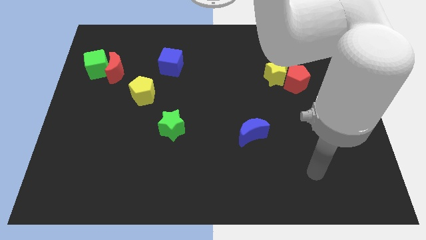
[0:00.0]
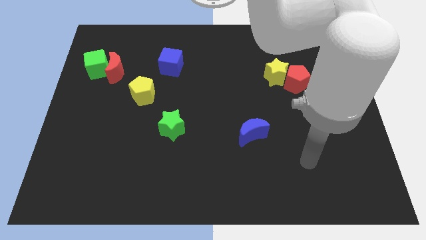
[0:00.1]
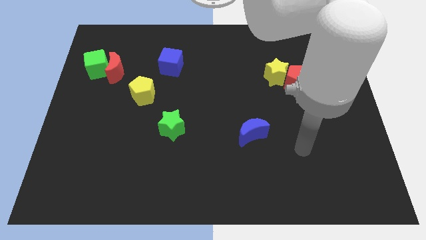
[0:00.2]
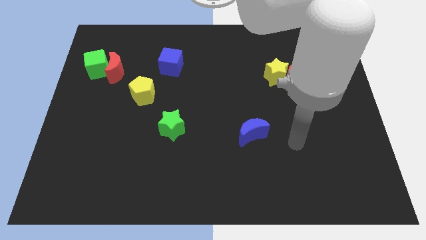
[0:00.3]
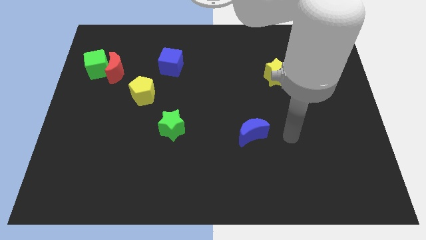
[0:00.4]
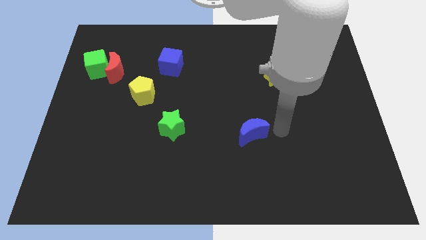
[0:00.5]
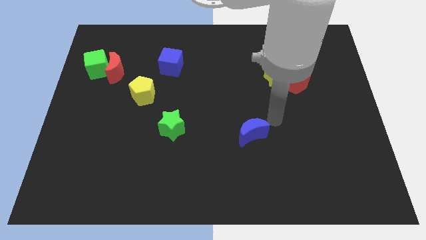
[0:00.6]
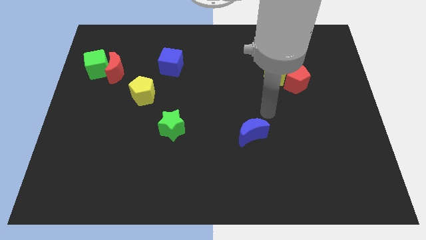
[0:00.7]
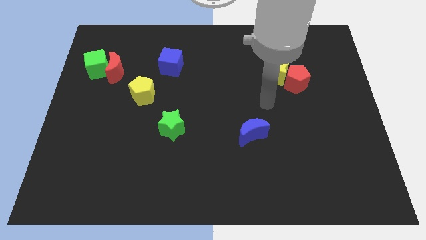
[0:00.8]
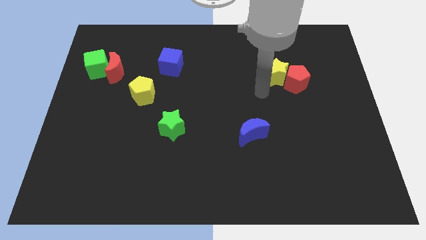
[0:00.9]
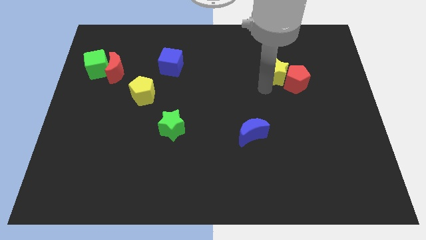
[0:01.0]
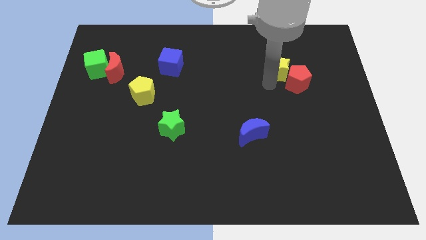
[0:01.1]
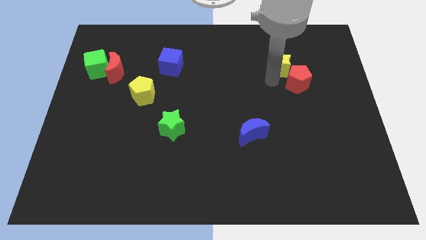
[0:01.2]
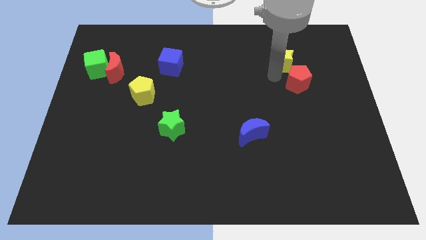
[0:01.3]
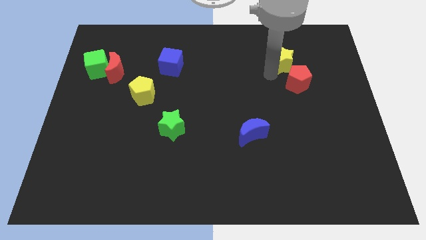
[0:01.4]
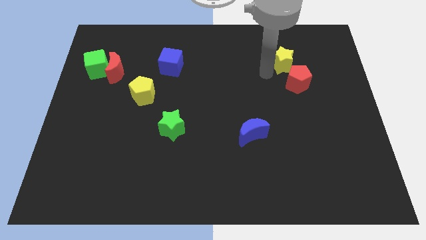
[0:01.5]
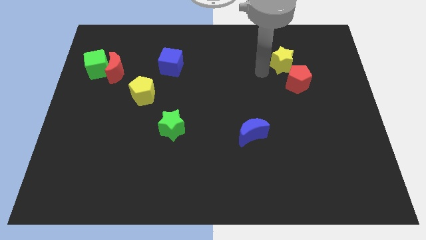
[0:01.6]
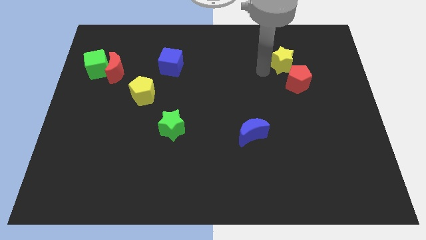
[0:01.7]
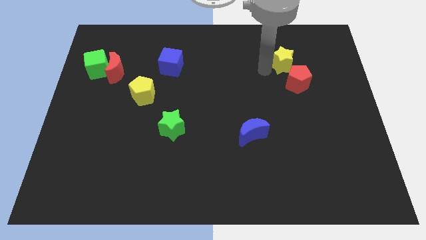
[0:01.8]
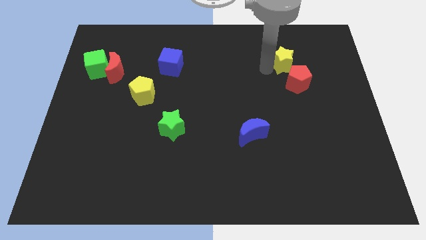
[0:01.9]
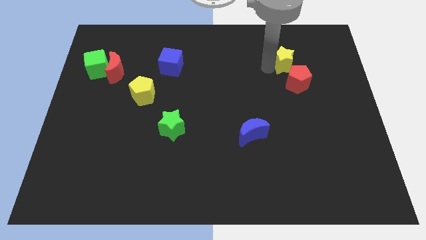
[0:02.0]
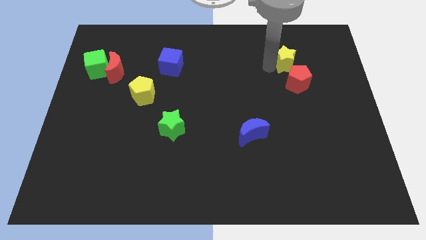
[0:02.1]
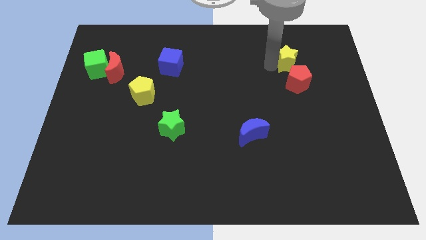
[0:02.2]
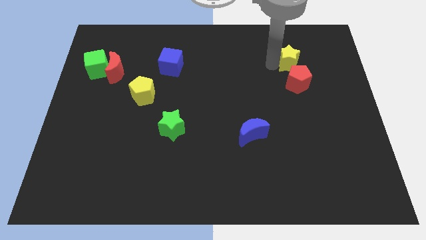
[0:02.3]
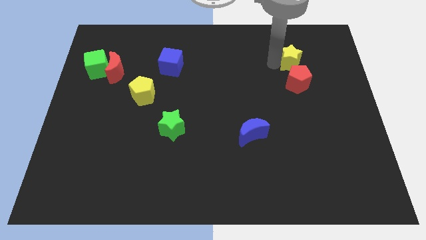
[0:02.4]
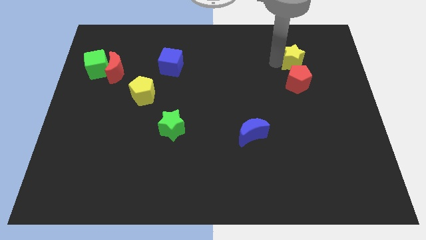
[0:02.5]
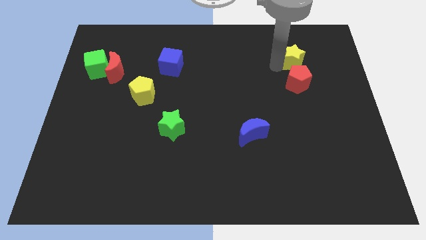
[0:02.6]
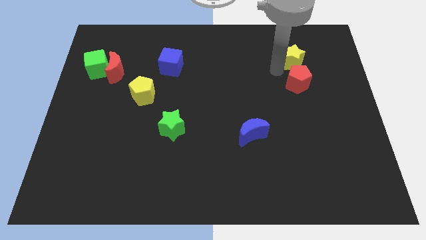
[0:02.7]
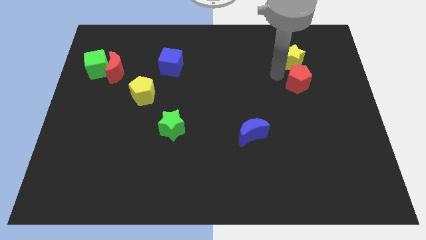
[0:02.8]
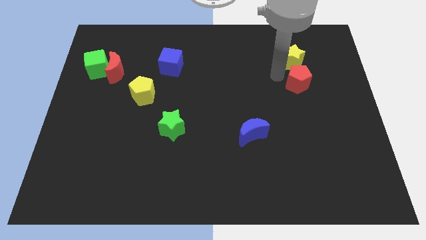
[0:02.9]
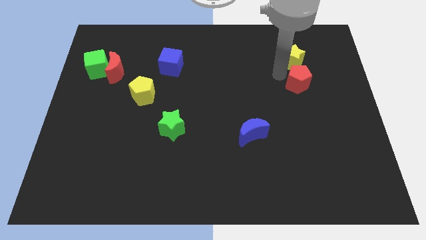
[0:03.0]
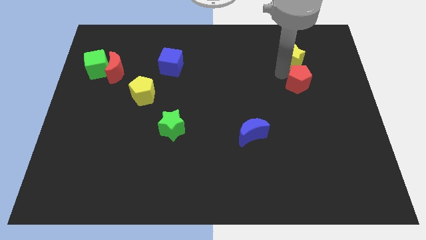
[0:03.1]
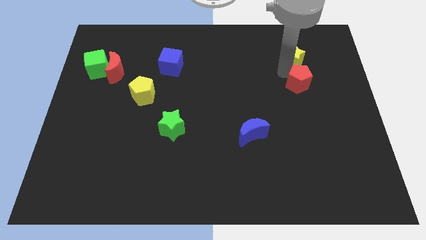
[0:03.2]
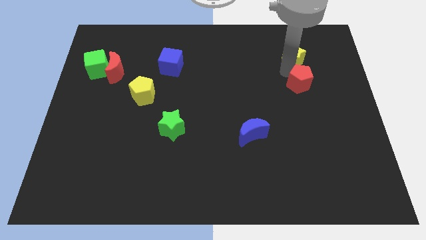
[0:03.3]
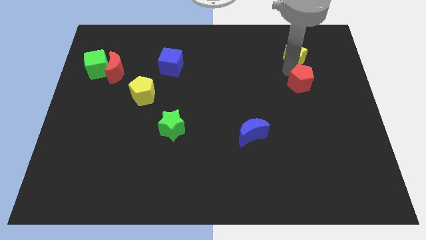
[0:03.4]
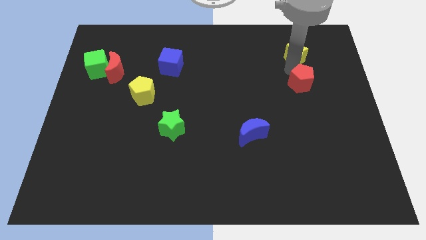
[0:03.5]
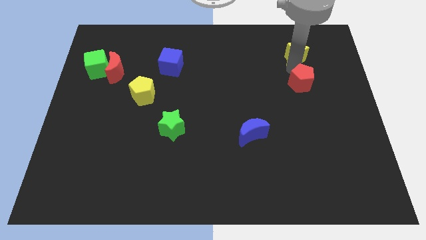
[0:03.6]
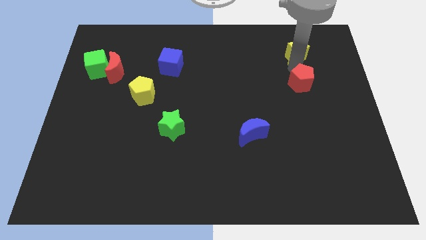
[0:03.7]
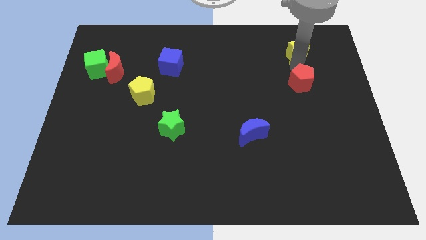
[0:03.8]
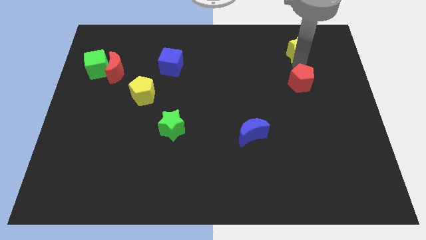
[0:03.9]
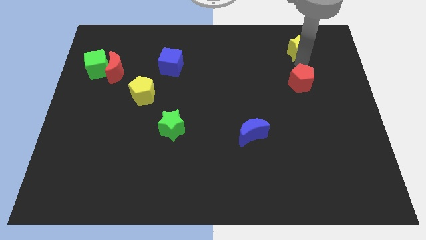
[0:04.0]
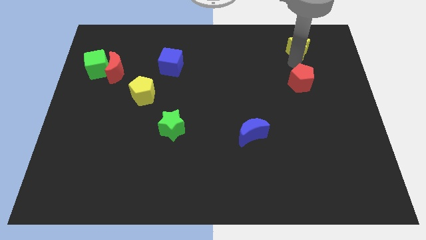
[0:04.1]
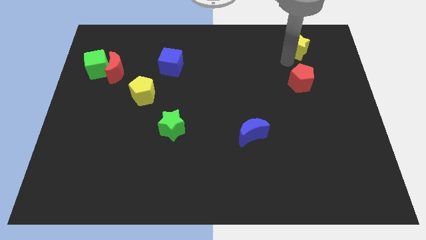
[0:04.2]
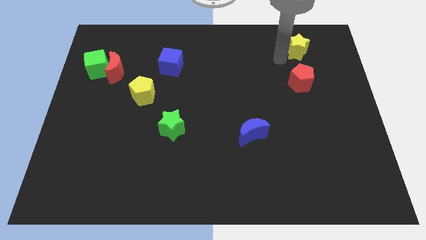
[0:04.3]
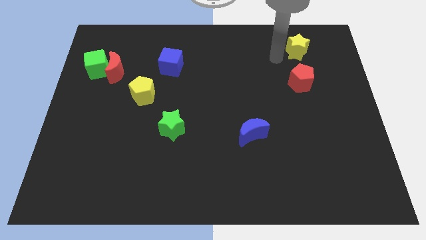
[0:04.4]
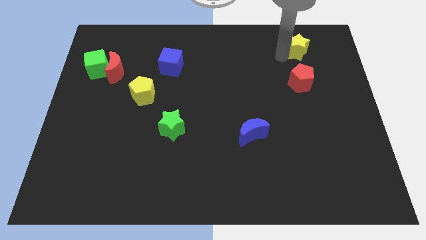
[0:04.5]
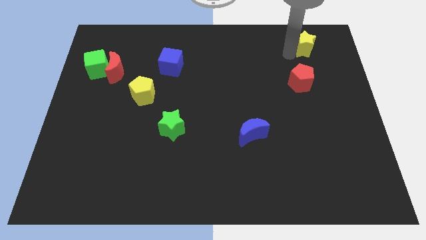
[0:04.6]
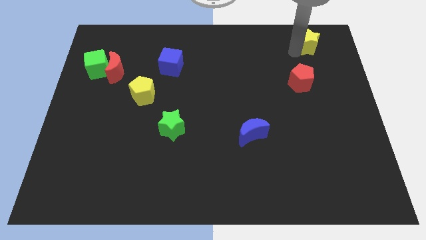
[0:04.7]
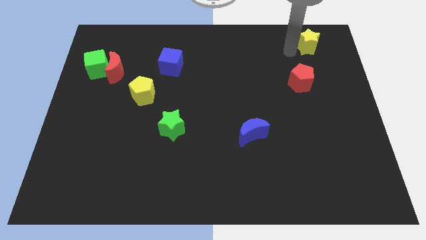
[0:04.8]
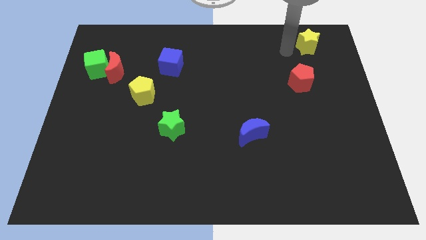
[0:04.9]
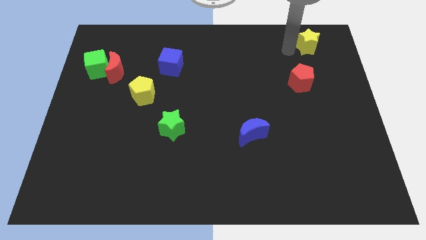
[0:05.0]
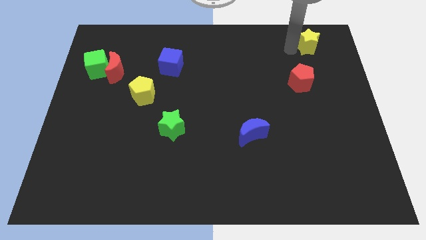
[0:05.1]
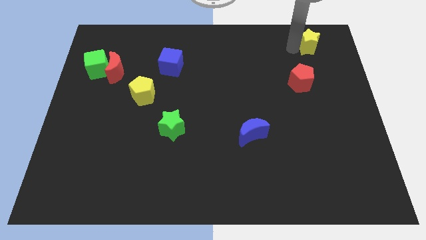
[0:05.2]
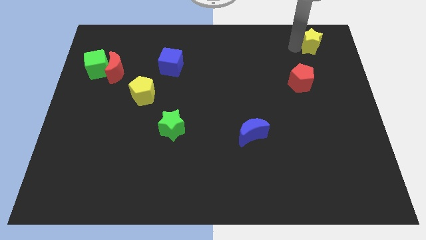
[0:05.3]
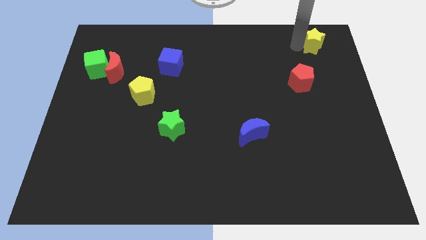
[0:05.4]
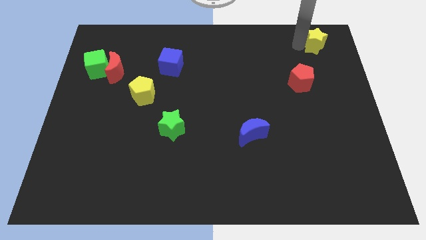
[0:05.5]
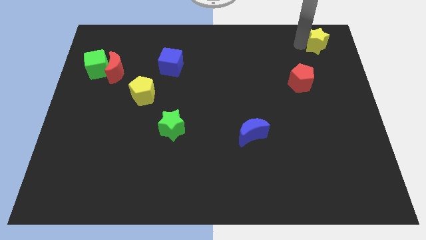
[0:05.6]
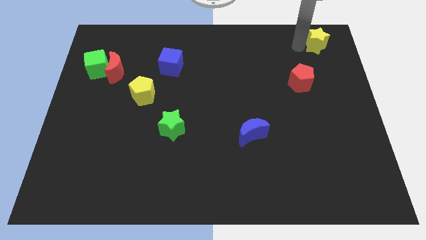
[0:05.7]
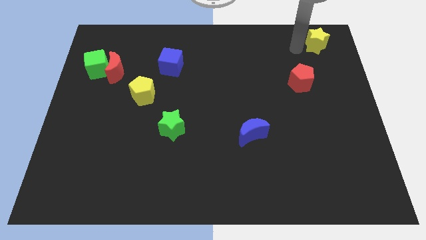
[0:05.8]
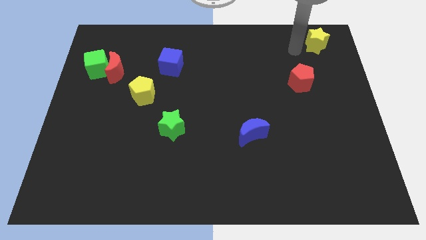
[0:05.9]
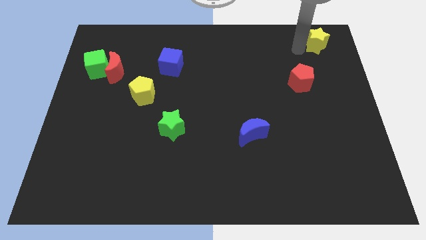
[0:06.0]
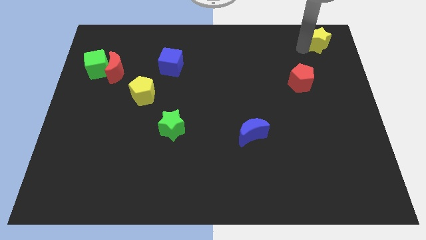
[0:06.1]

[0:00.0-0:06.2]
move the yellow star to the upper right corner
